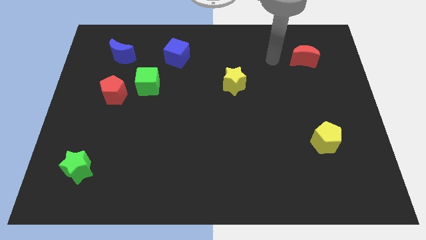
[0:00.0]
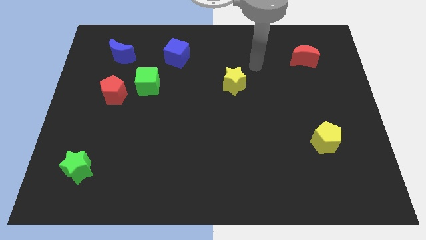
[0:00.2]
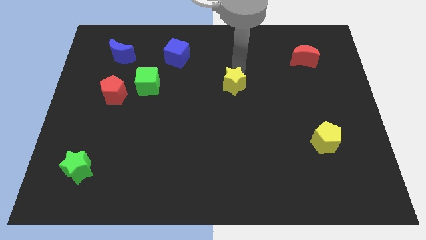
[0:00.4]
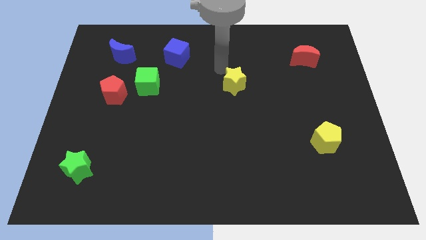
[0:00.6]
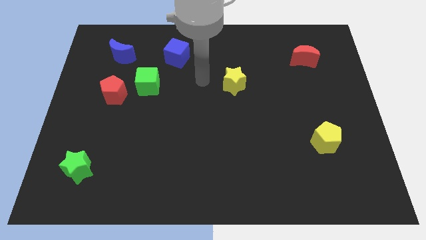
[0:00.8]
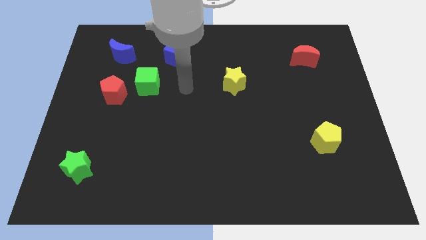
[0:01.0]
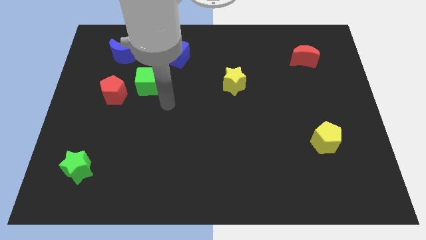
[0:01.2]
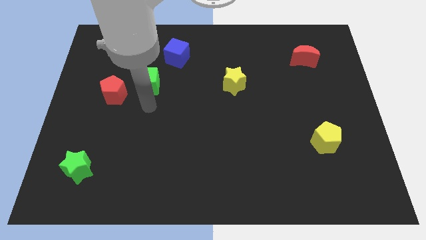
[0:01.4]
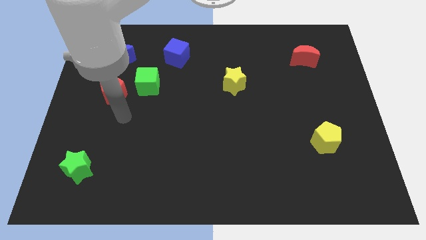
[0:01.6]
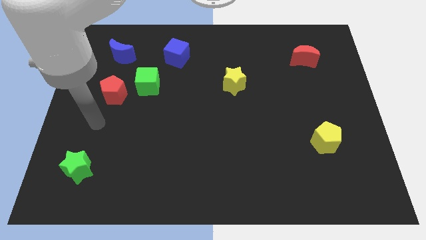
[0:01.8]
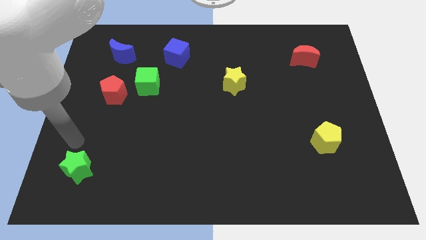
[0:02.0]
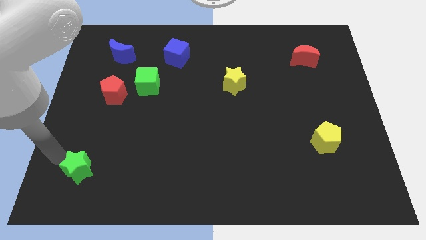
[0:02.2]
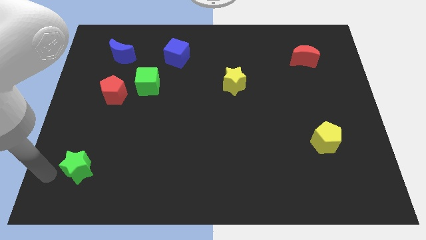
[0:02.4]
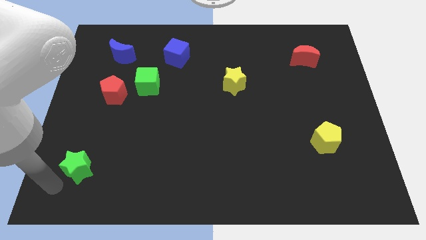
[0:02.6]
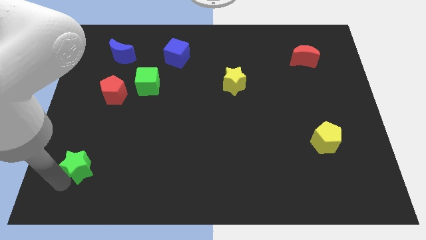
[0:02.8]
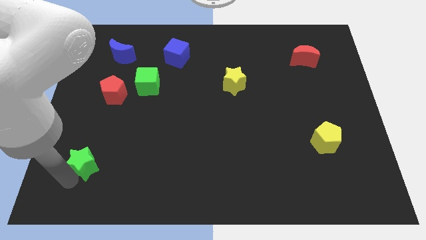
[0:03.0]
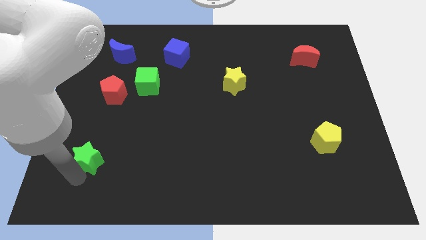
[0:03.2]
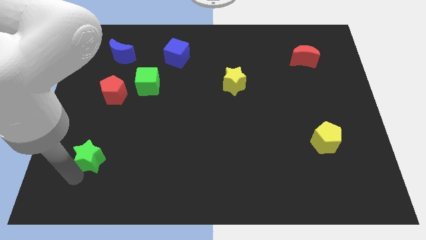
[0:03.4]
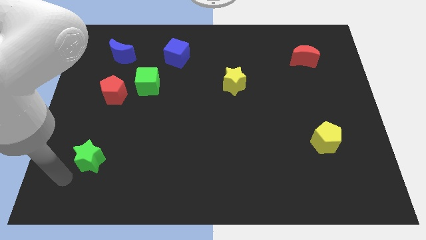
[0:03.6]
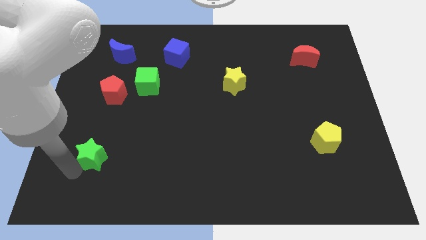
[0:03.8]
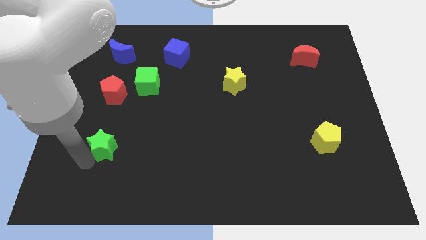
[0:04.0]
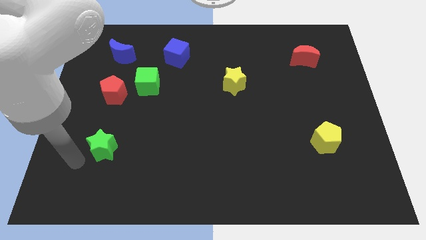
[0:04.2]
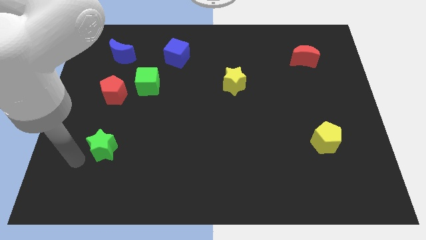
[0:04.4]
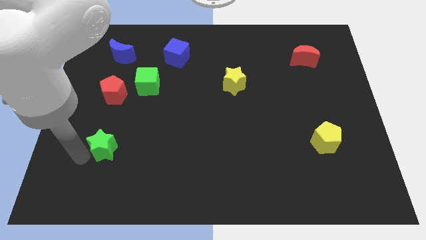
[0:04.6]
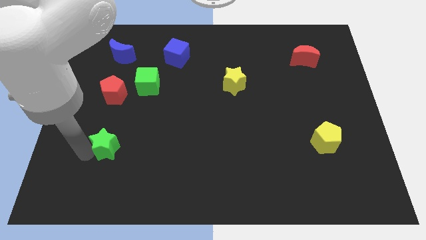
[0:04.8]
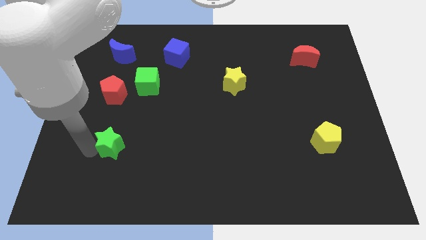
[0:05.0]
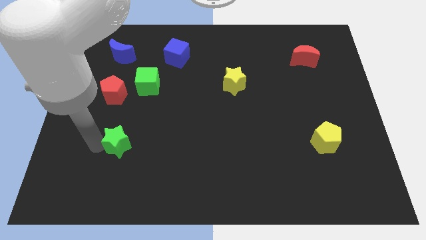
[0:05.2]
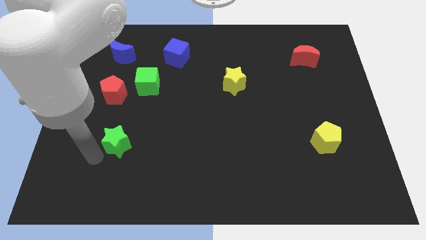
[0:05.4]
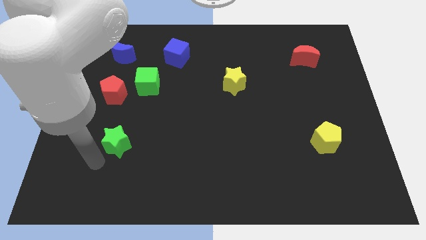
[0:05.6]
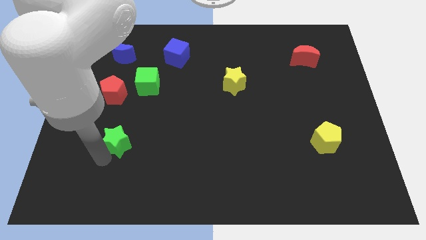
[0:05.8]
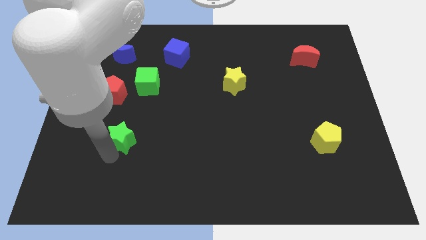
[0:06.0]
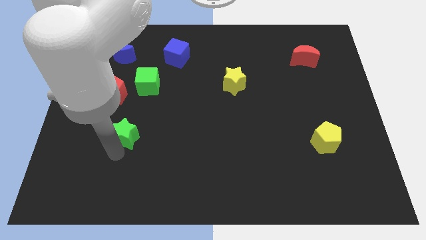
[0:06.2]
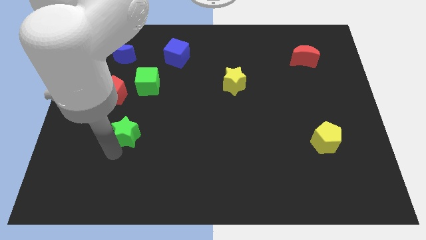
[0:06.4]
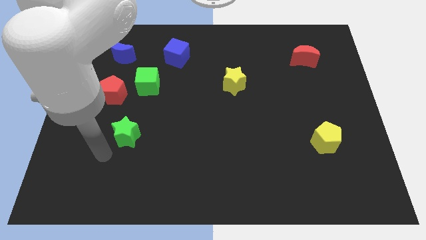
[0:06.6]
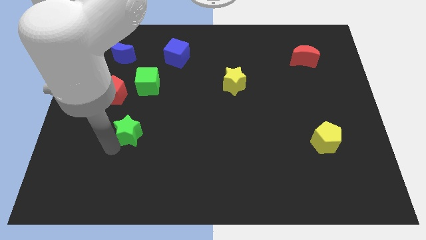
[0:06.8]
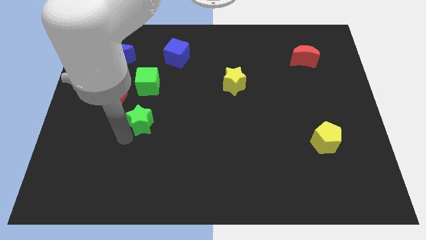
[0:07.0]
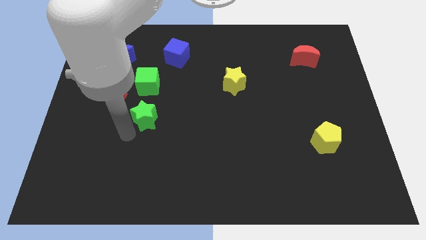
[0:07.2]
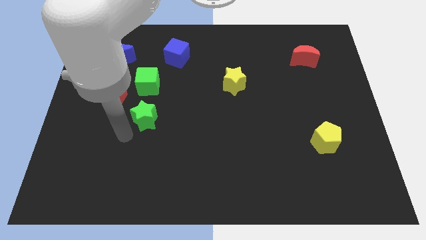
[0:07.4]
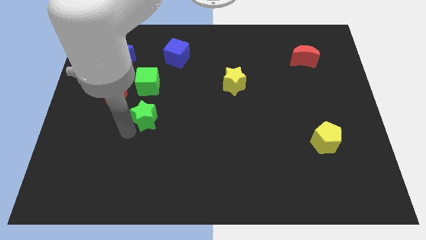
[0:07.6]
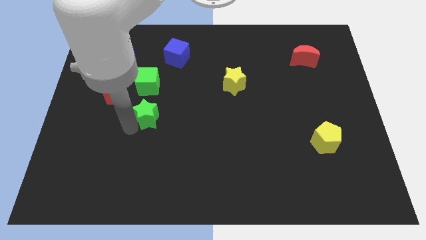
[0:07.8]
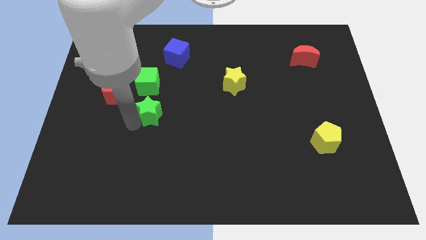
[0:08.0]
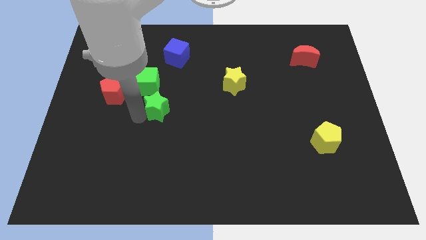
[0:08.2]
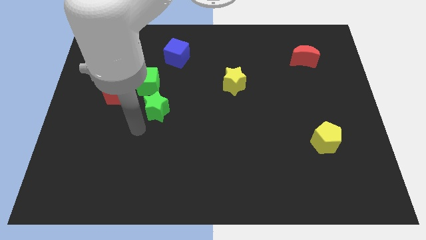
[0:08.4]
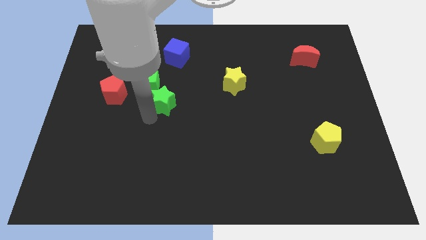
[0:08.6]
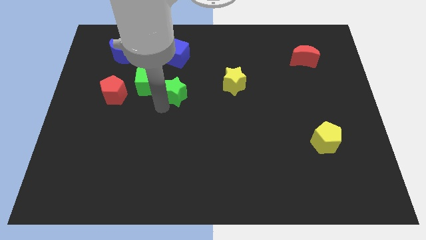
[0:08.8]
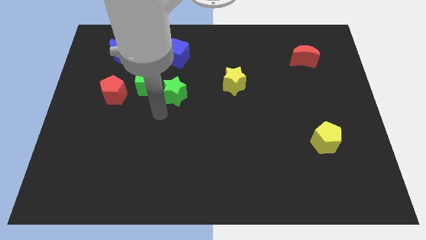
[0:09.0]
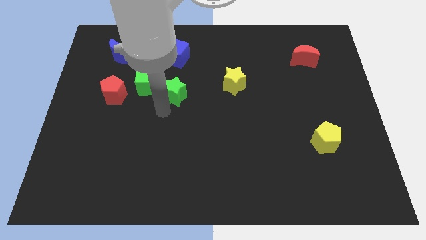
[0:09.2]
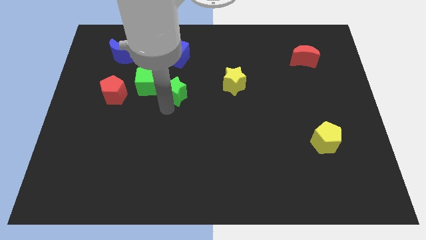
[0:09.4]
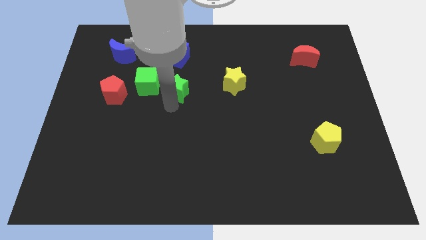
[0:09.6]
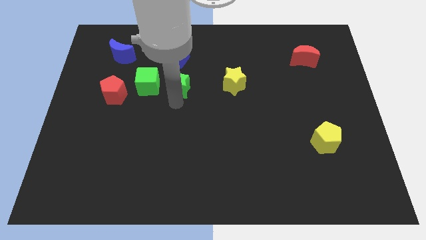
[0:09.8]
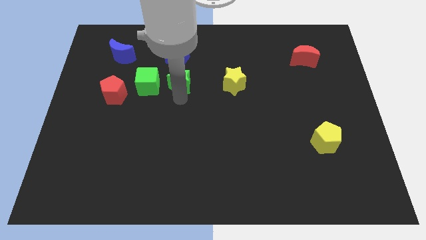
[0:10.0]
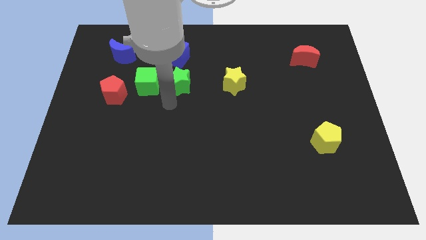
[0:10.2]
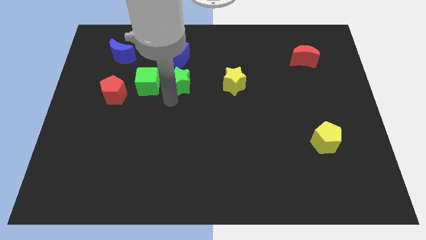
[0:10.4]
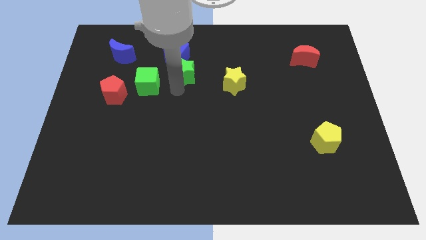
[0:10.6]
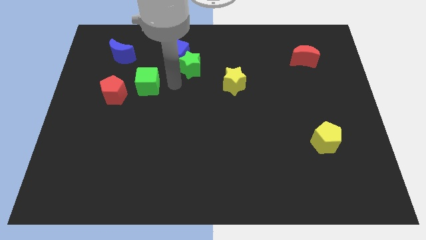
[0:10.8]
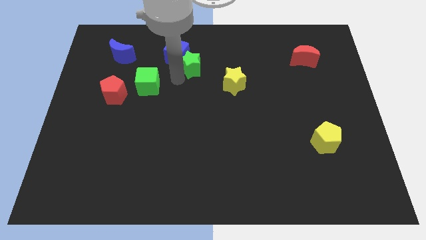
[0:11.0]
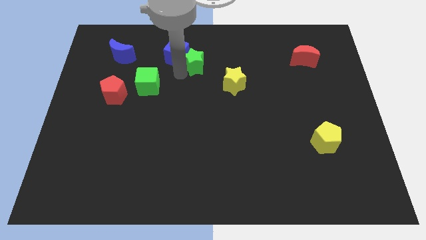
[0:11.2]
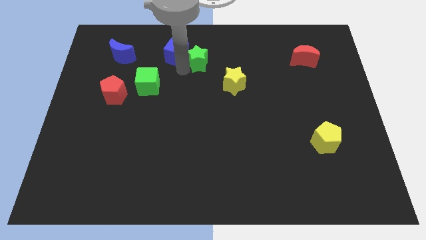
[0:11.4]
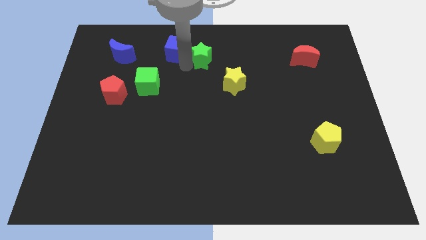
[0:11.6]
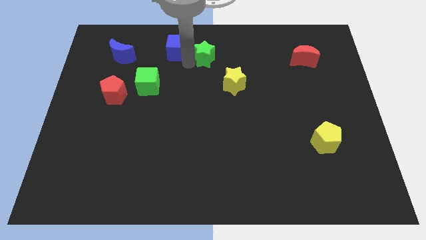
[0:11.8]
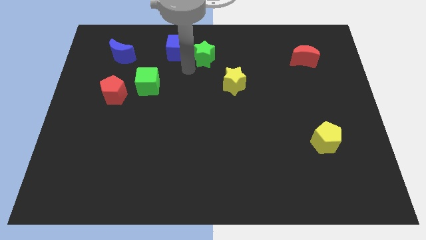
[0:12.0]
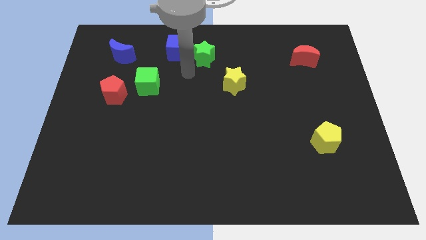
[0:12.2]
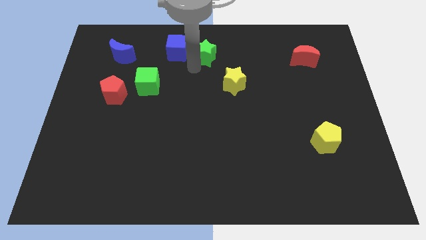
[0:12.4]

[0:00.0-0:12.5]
slide the green star to the towards your base
